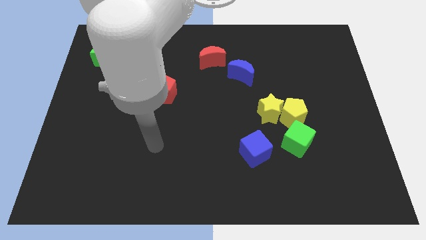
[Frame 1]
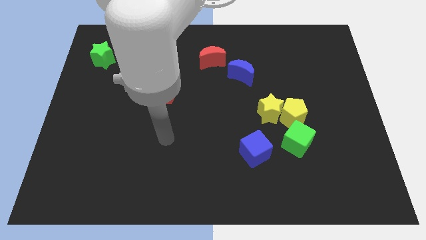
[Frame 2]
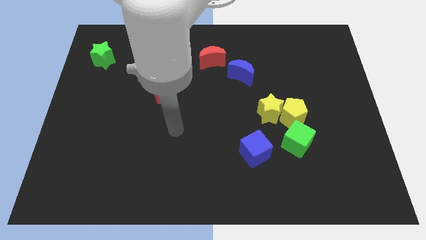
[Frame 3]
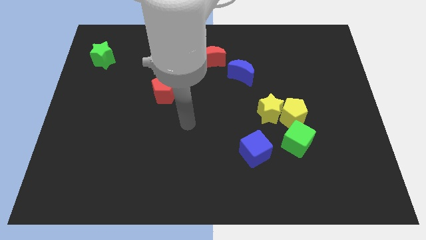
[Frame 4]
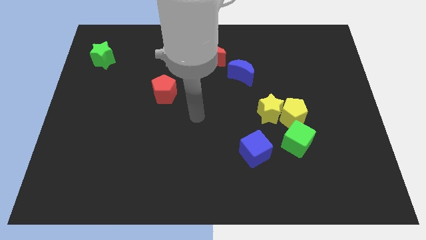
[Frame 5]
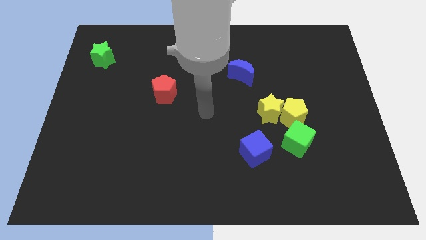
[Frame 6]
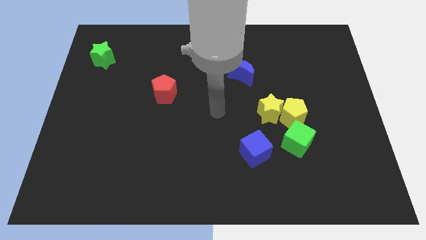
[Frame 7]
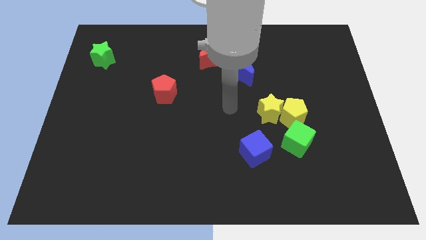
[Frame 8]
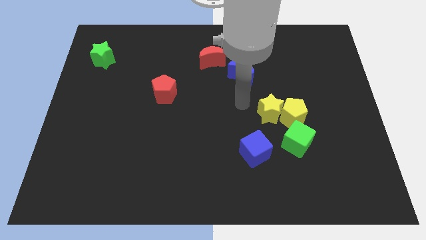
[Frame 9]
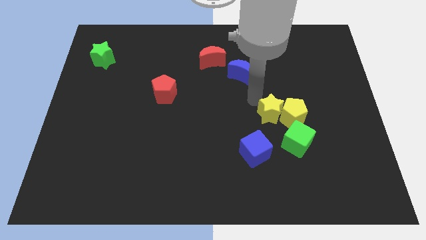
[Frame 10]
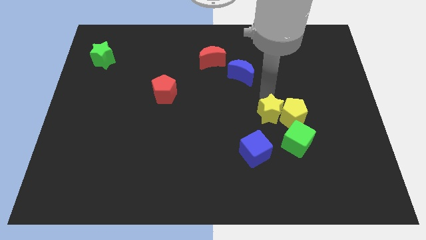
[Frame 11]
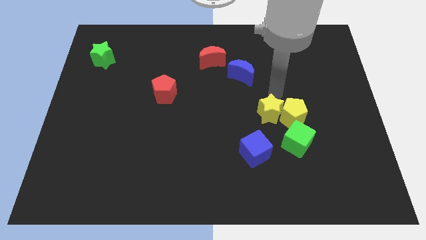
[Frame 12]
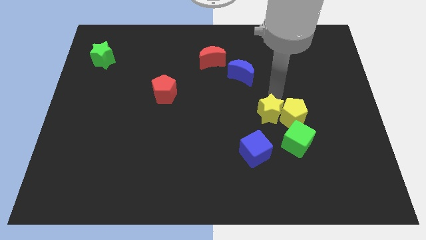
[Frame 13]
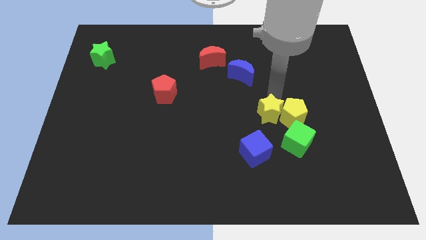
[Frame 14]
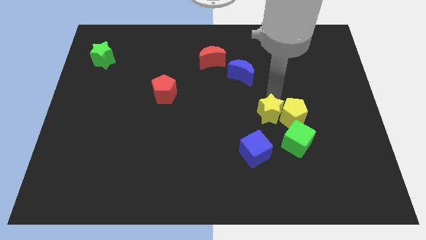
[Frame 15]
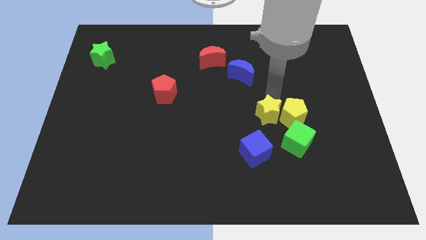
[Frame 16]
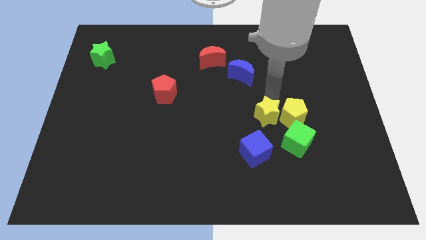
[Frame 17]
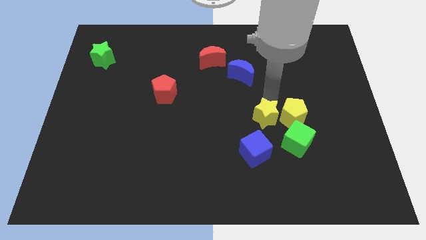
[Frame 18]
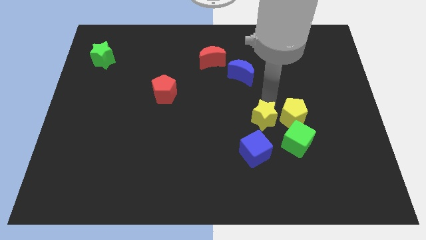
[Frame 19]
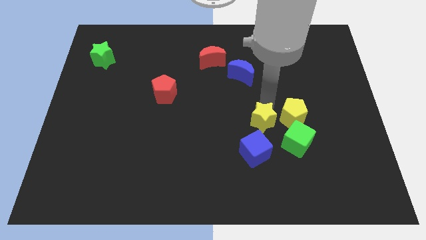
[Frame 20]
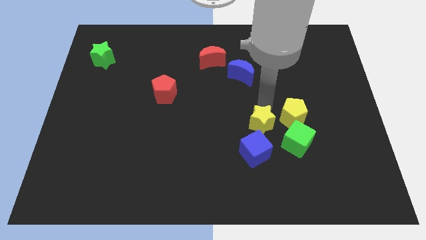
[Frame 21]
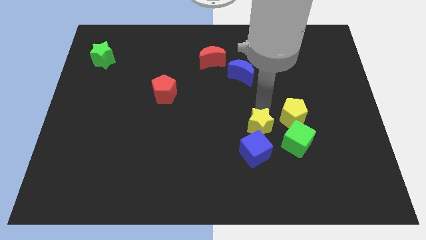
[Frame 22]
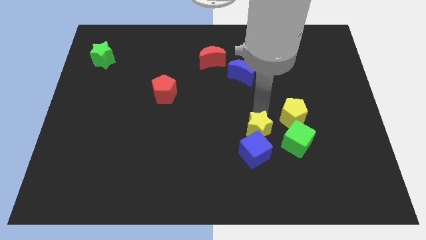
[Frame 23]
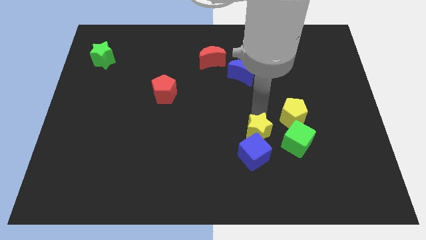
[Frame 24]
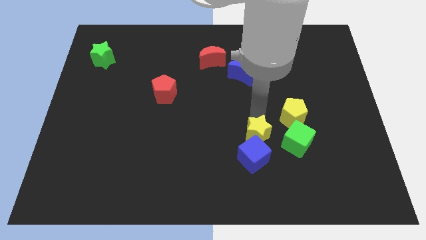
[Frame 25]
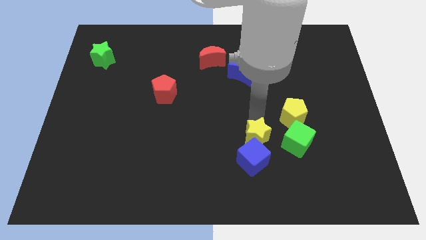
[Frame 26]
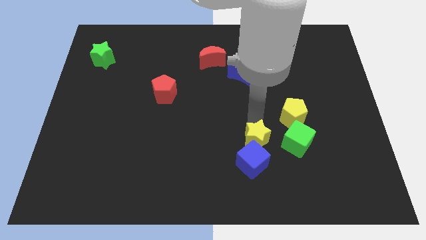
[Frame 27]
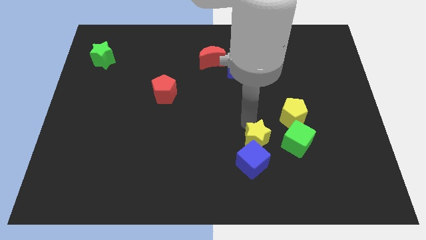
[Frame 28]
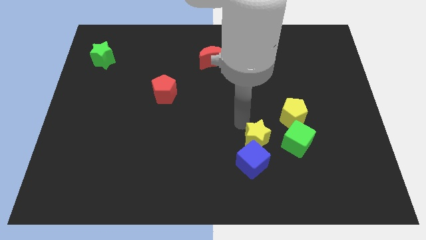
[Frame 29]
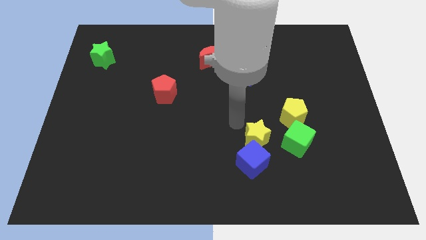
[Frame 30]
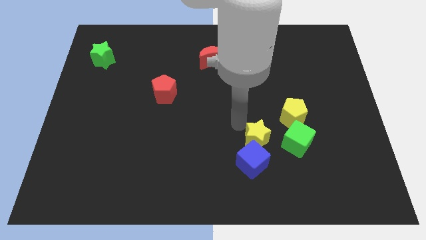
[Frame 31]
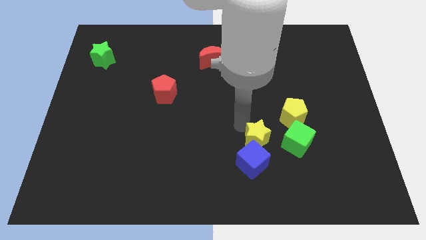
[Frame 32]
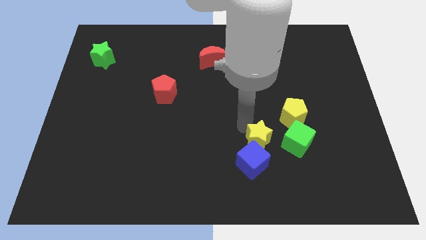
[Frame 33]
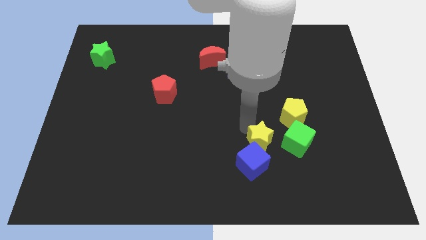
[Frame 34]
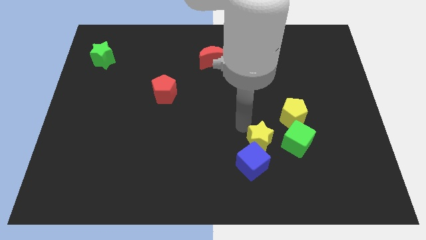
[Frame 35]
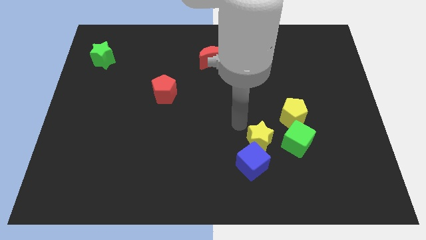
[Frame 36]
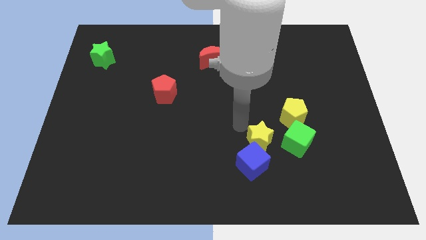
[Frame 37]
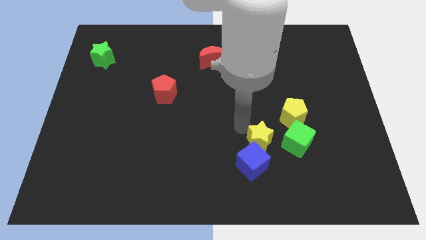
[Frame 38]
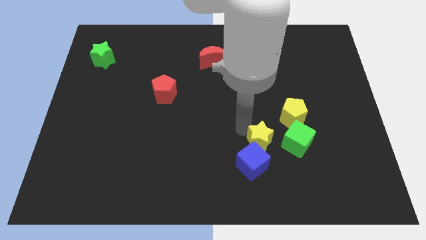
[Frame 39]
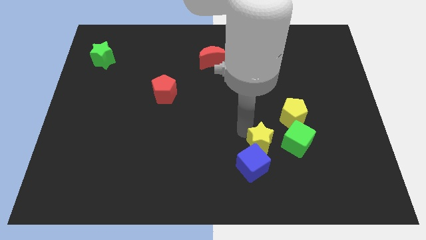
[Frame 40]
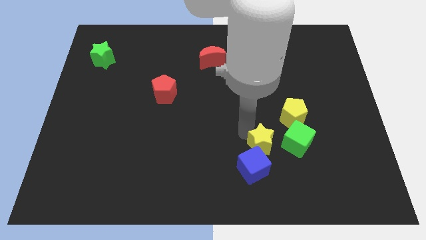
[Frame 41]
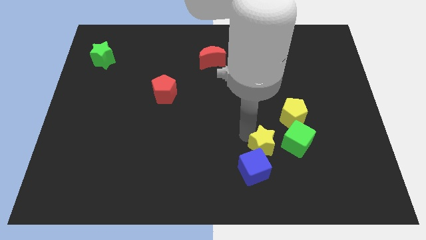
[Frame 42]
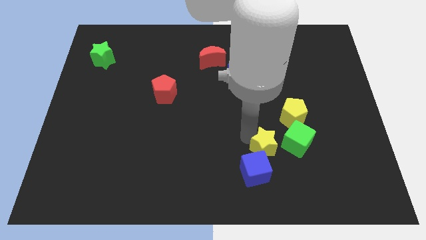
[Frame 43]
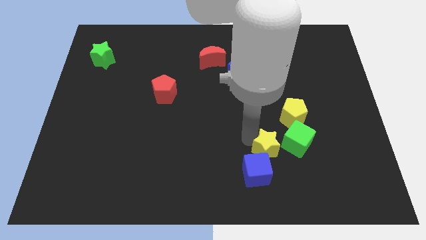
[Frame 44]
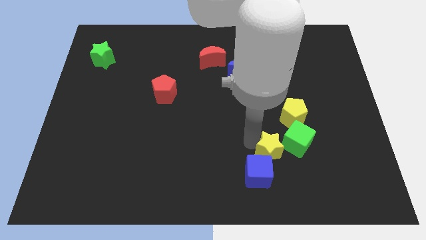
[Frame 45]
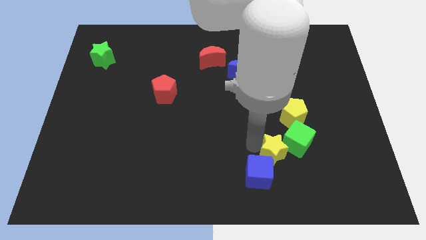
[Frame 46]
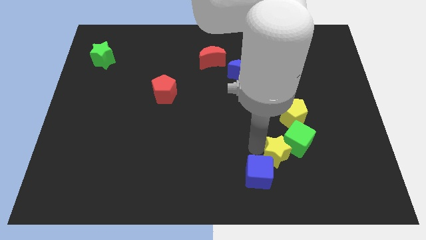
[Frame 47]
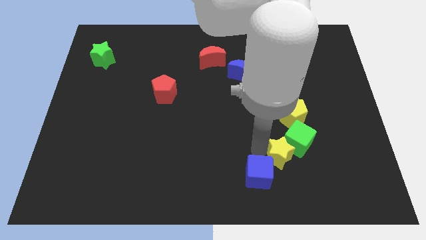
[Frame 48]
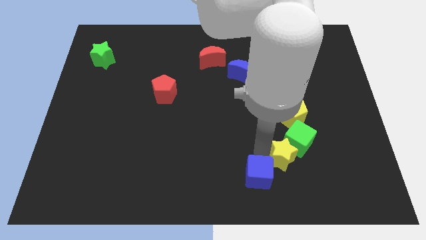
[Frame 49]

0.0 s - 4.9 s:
push the yellow star a little downwards and right diagonally

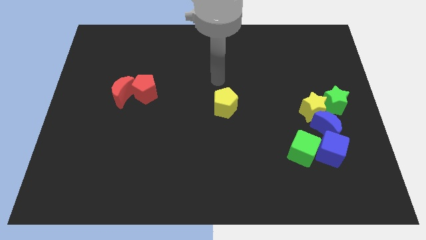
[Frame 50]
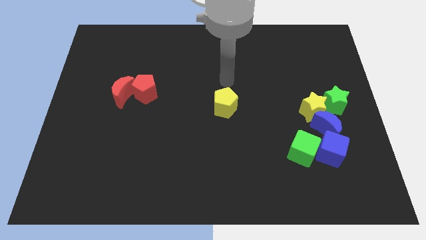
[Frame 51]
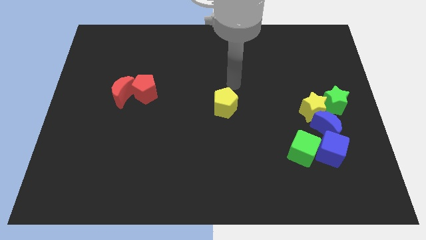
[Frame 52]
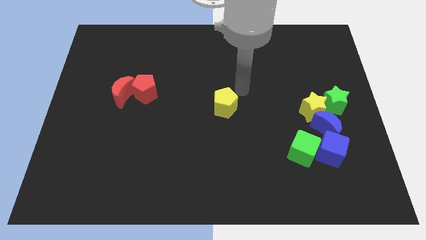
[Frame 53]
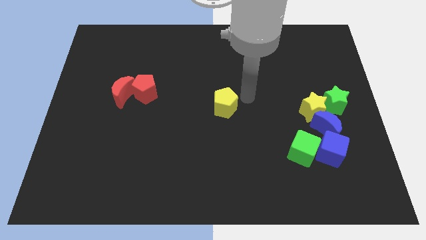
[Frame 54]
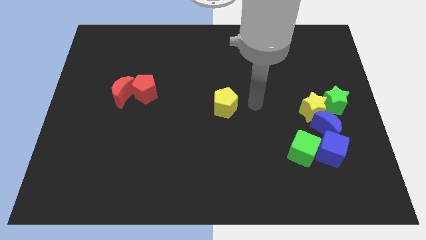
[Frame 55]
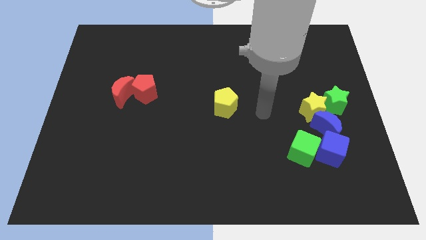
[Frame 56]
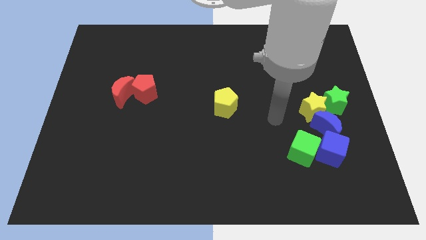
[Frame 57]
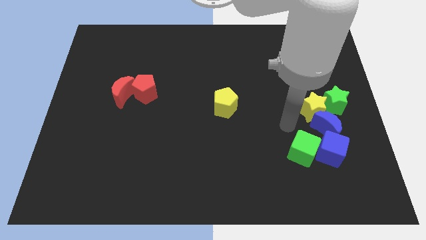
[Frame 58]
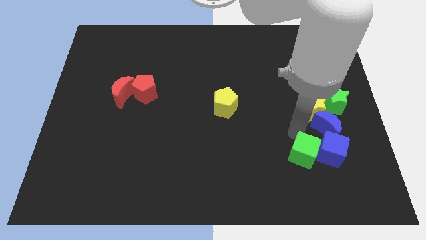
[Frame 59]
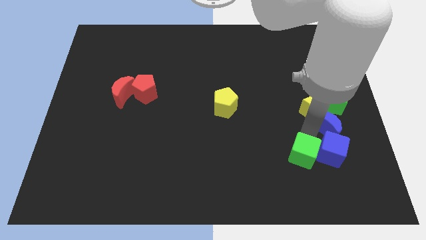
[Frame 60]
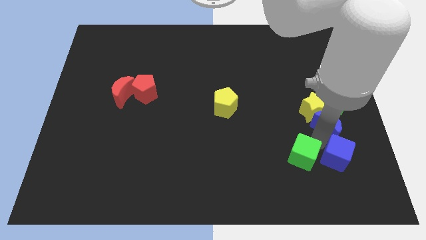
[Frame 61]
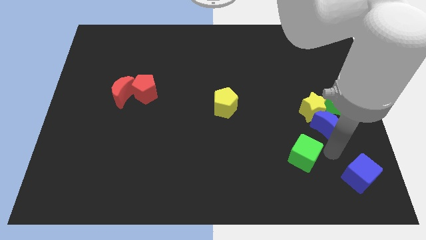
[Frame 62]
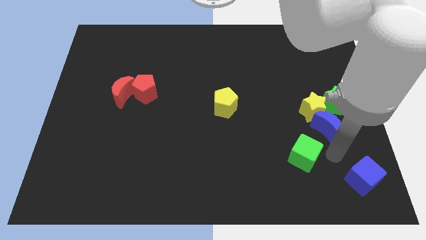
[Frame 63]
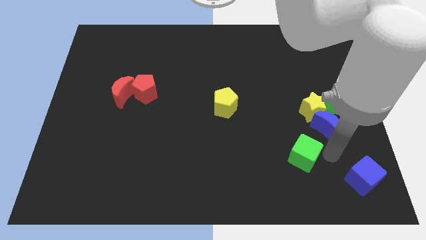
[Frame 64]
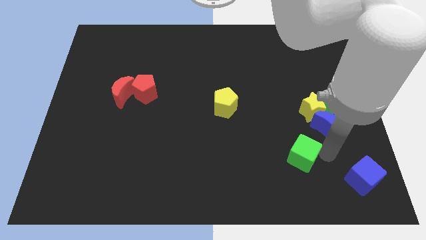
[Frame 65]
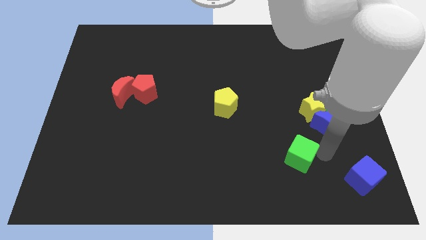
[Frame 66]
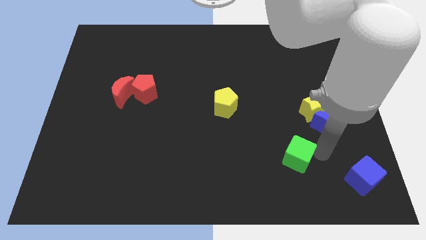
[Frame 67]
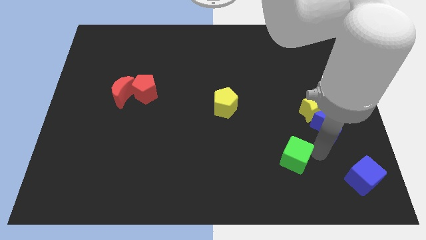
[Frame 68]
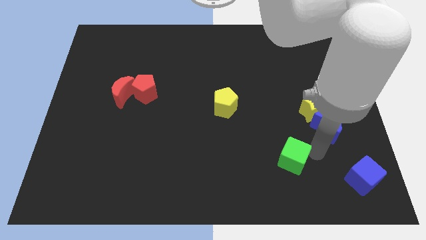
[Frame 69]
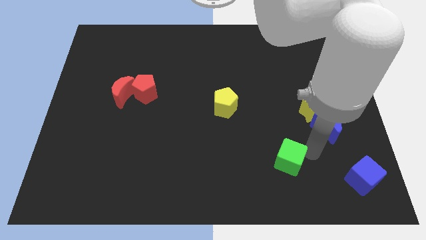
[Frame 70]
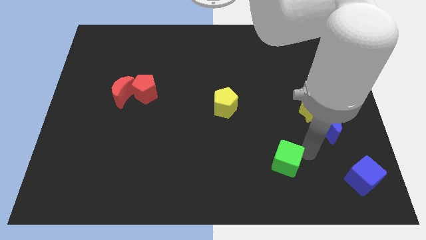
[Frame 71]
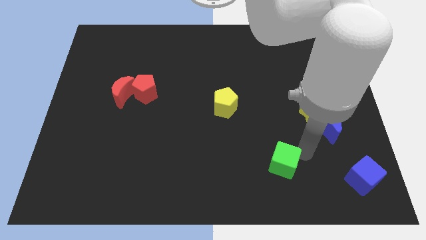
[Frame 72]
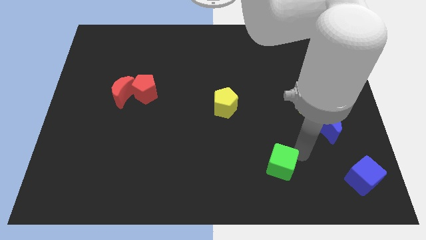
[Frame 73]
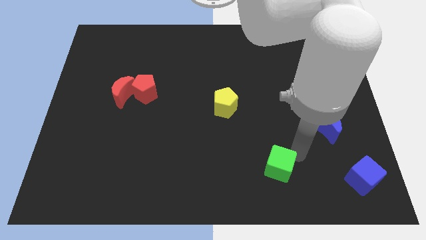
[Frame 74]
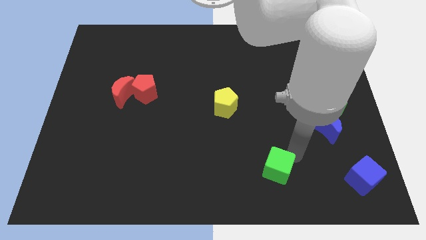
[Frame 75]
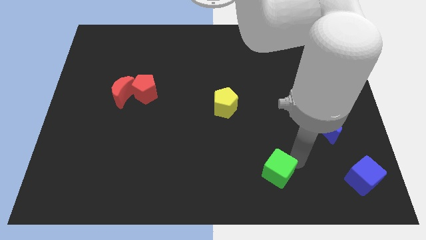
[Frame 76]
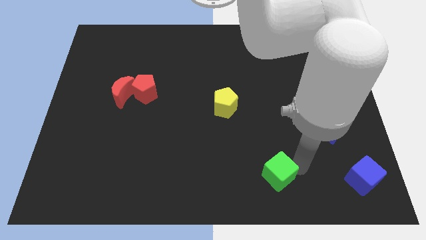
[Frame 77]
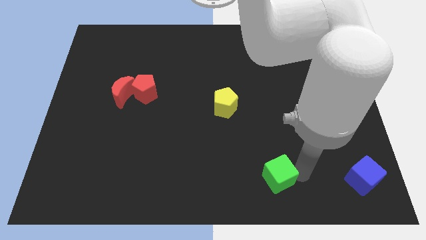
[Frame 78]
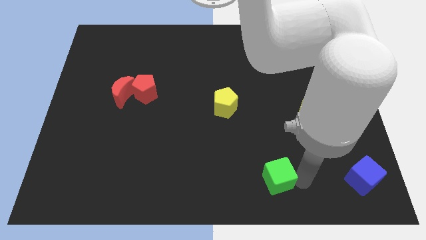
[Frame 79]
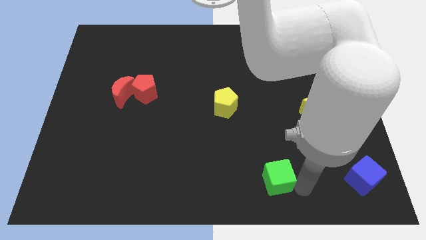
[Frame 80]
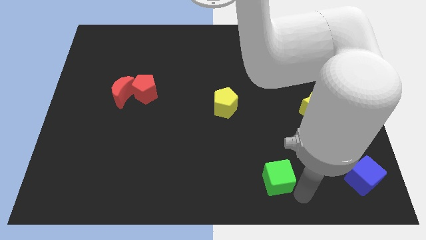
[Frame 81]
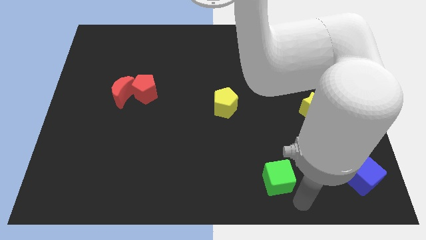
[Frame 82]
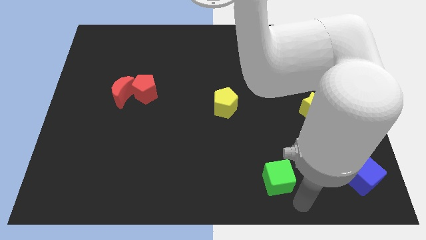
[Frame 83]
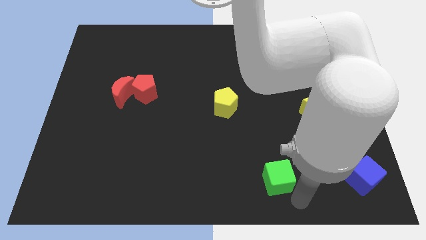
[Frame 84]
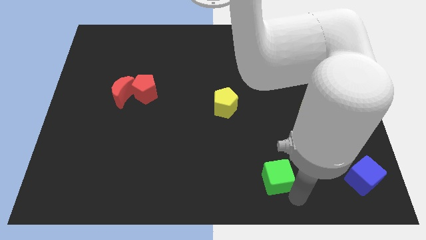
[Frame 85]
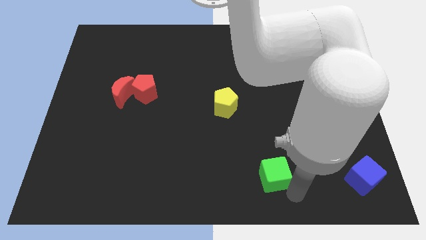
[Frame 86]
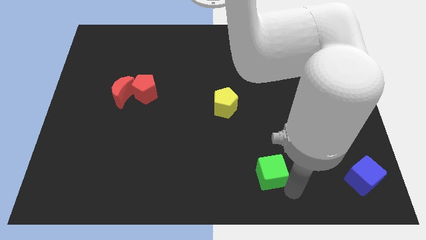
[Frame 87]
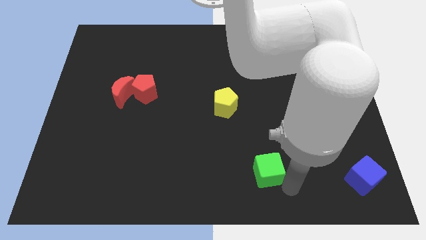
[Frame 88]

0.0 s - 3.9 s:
slightly slide the green cube left
